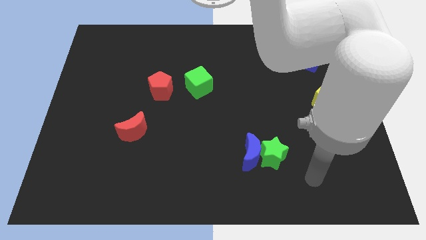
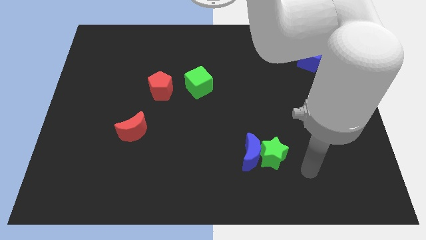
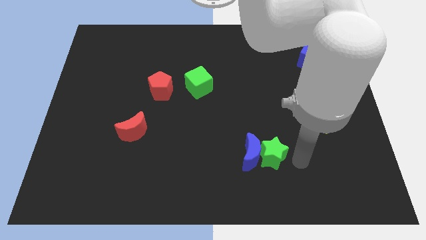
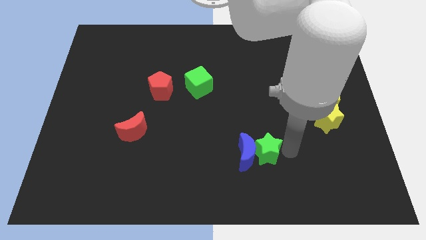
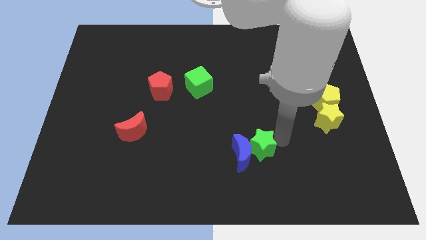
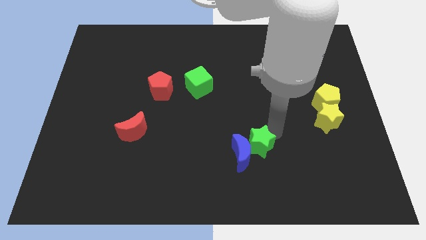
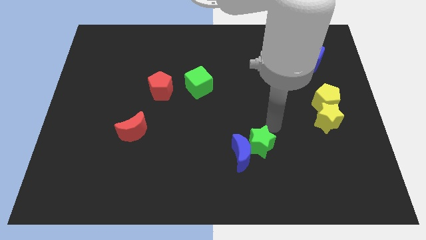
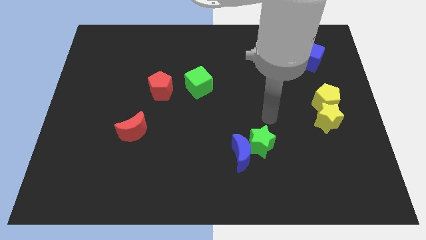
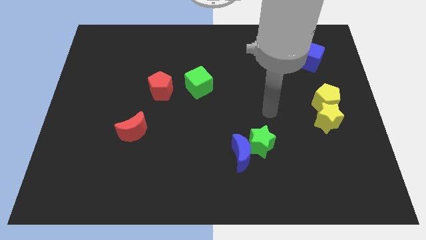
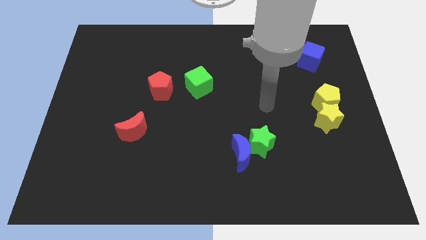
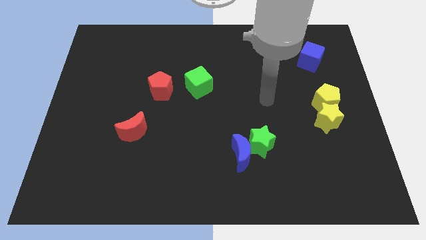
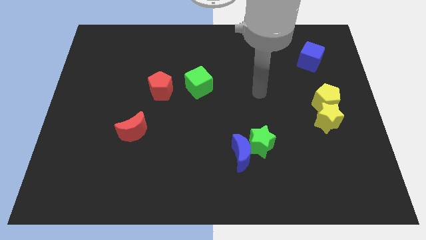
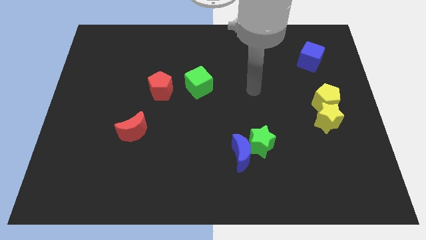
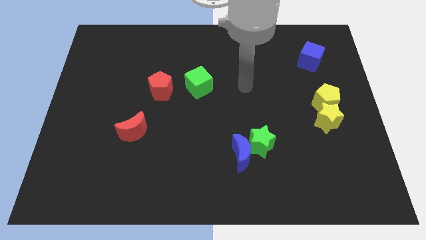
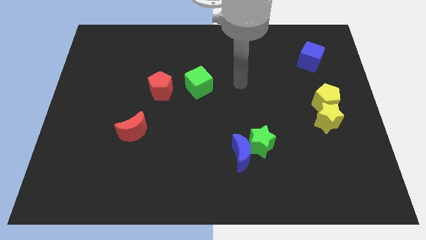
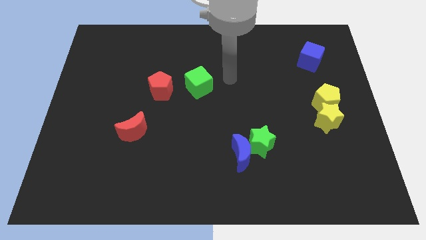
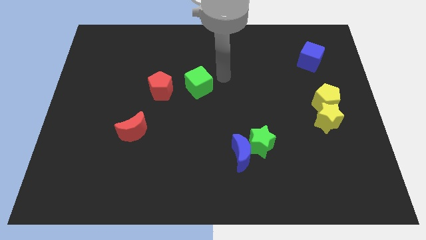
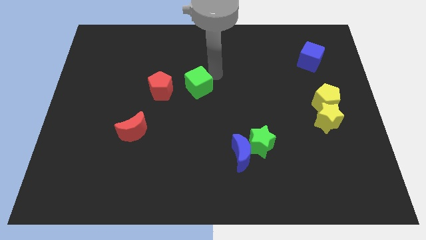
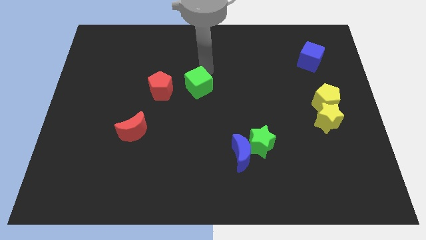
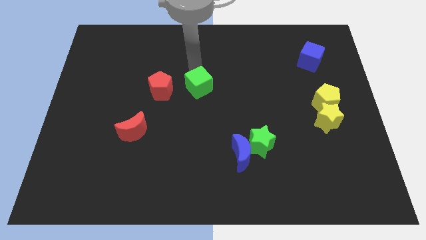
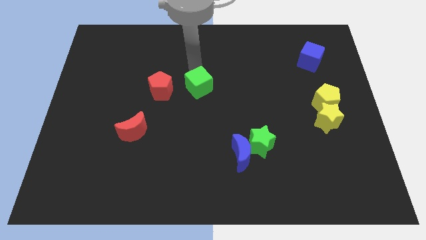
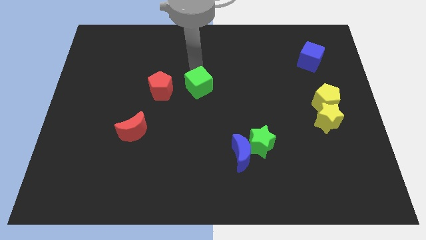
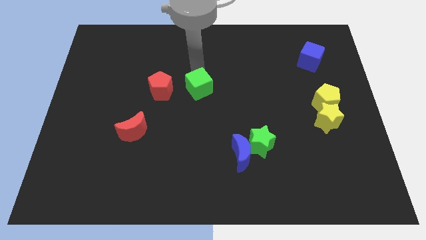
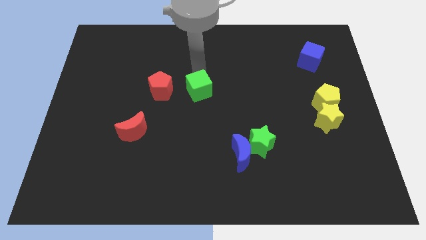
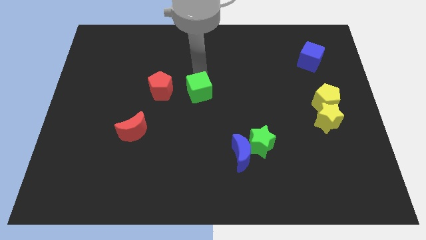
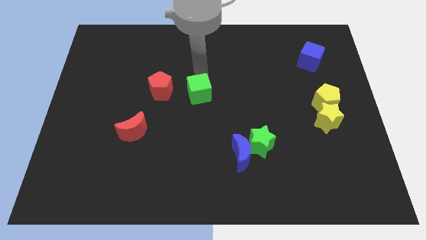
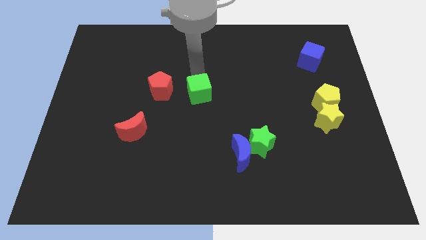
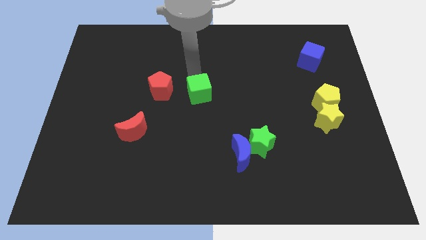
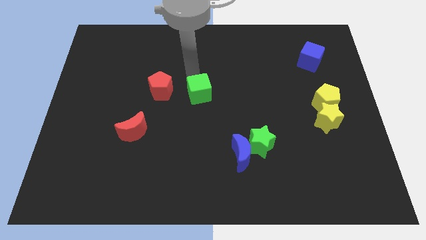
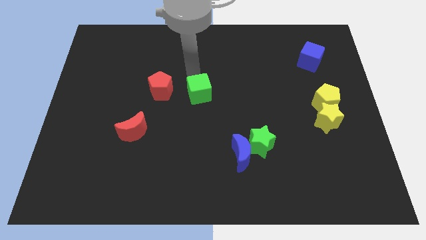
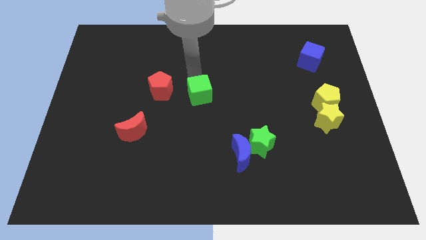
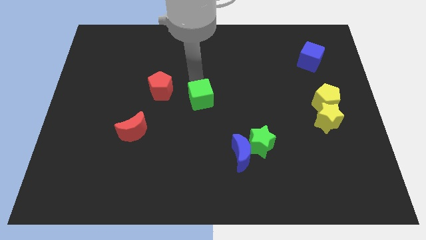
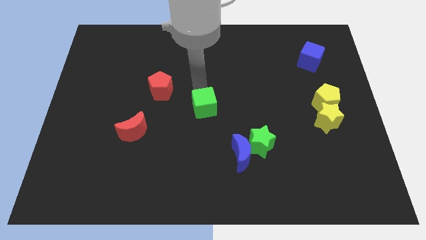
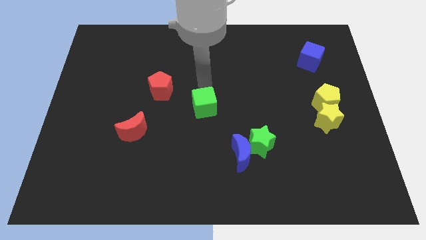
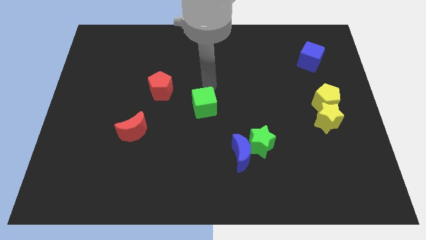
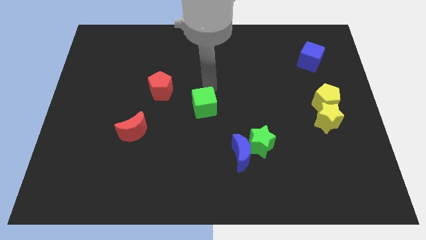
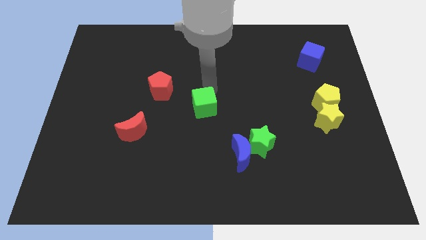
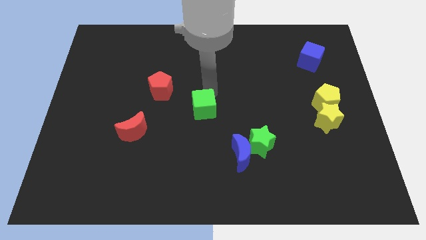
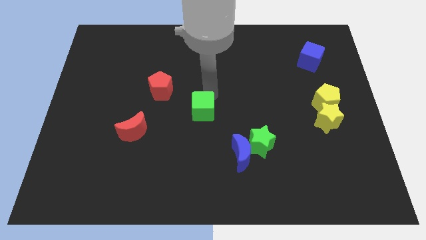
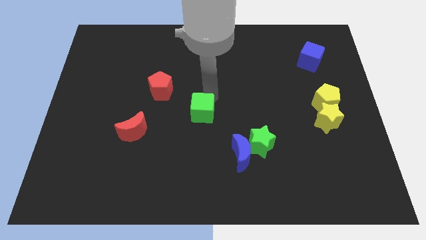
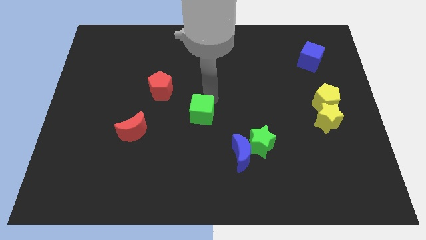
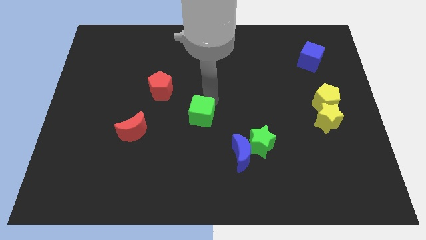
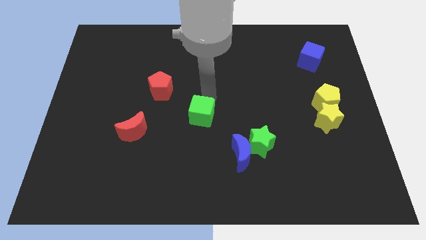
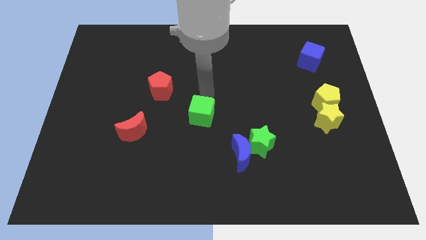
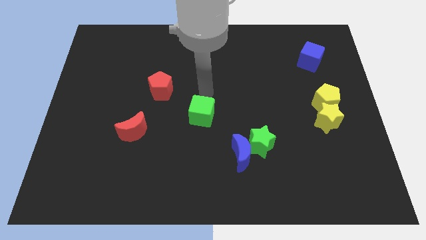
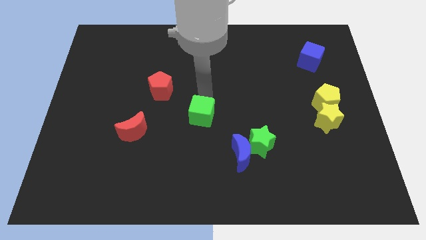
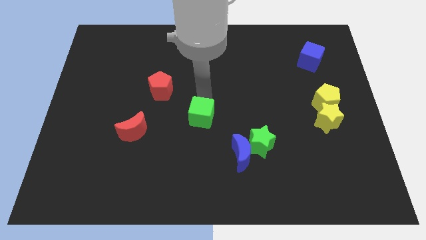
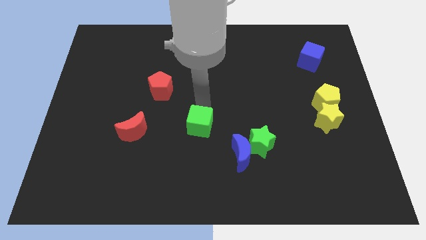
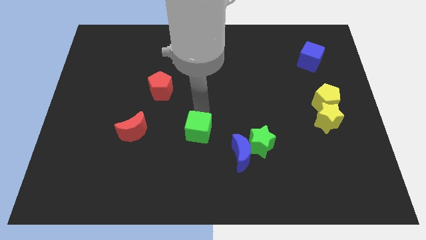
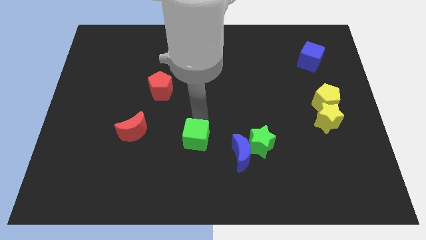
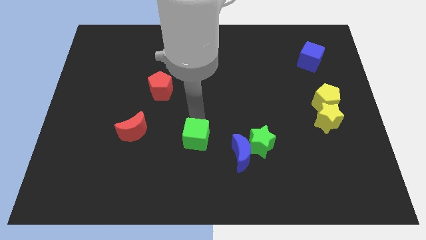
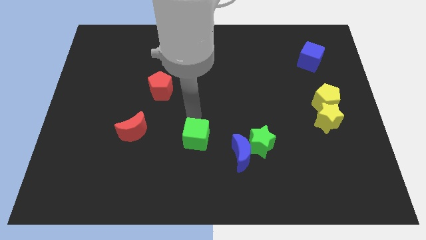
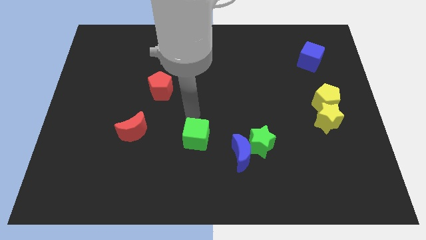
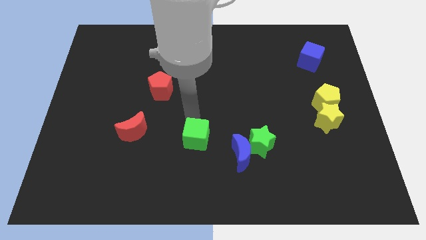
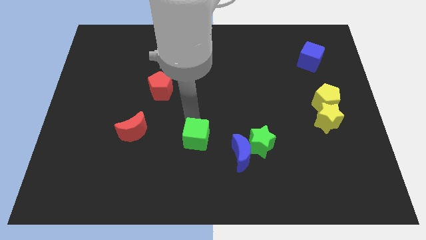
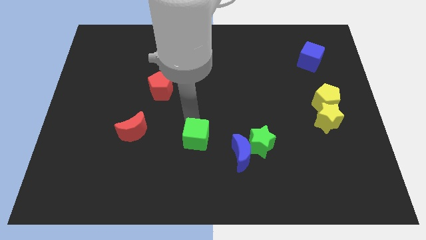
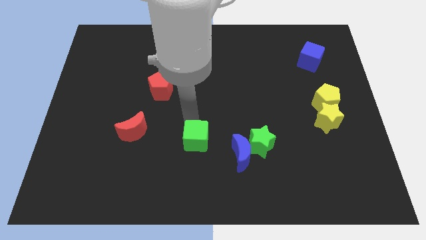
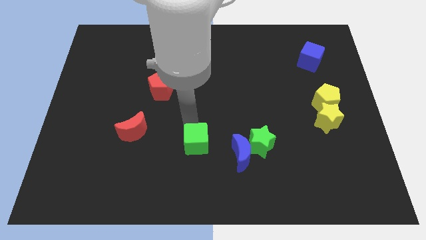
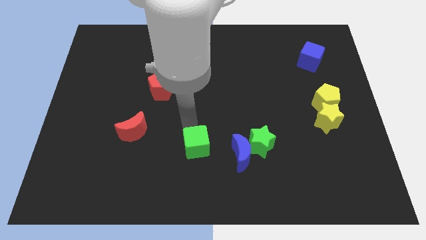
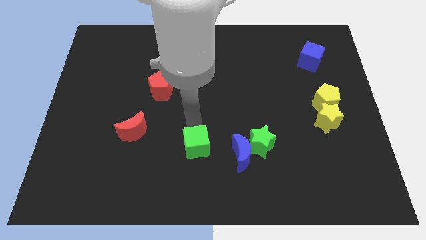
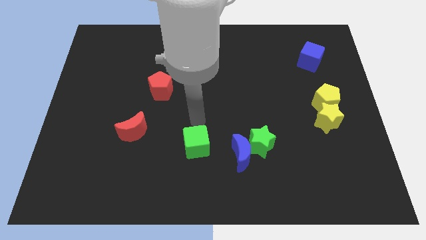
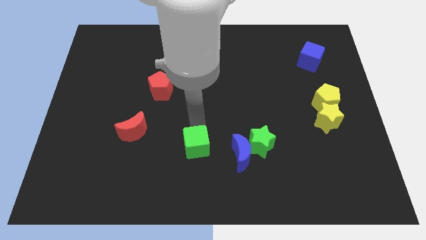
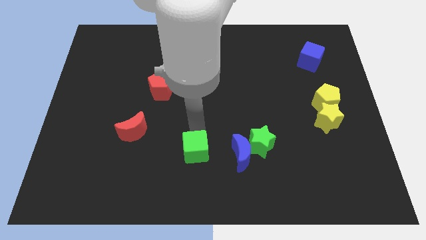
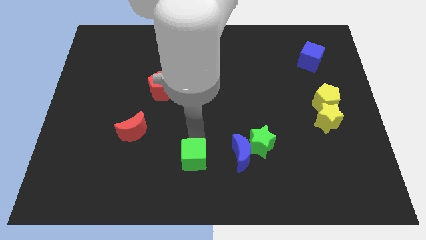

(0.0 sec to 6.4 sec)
move the green cube to the bottom
